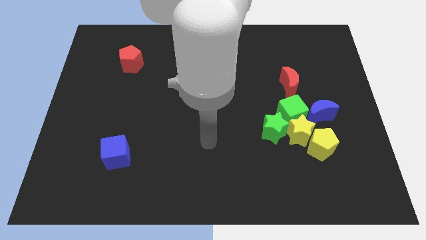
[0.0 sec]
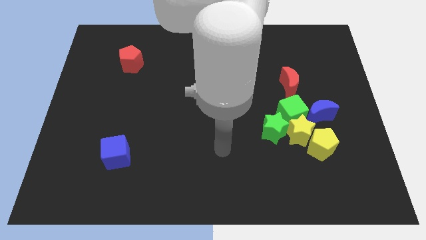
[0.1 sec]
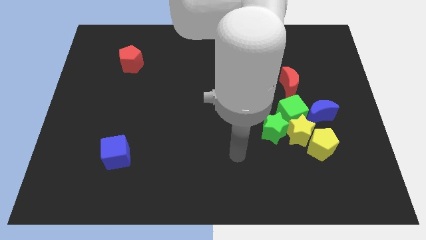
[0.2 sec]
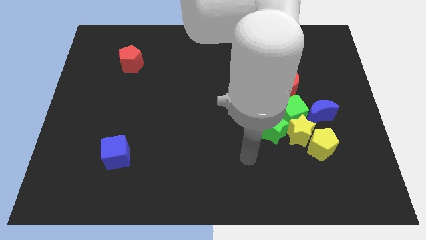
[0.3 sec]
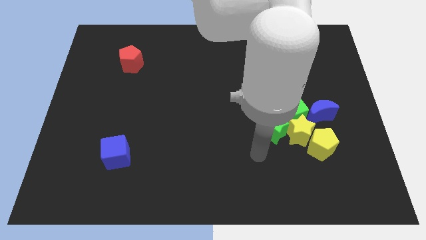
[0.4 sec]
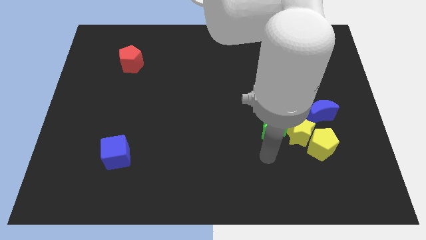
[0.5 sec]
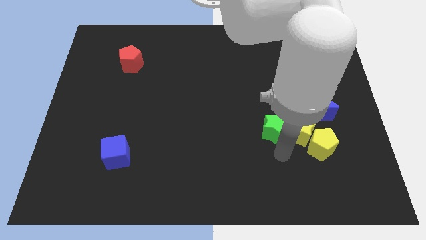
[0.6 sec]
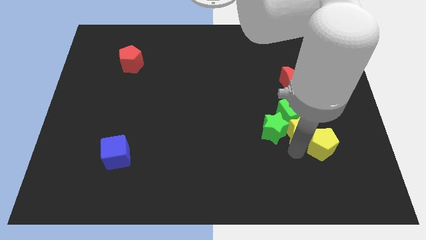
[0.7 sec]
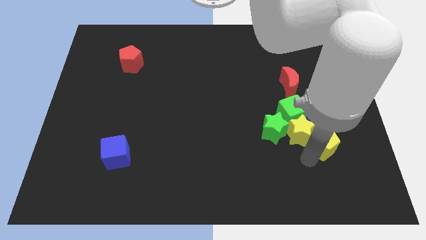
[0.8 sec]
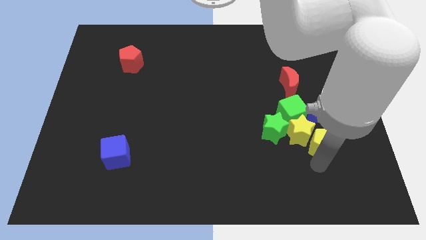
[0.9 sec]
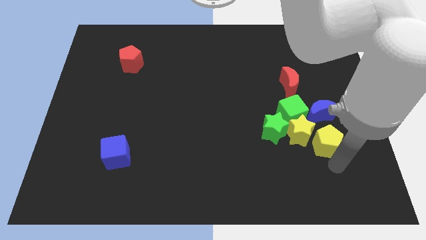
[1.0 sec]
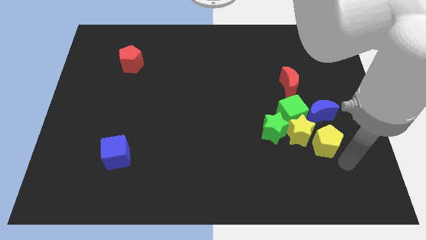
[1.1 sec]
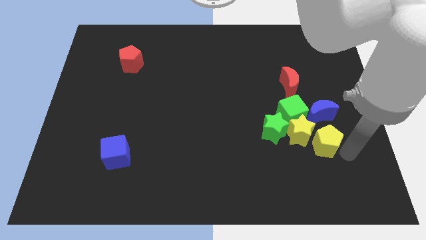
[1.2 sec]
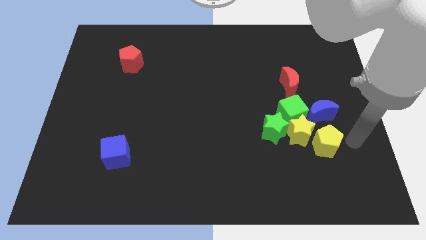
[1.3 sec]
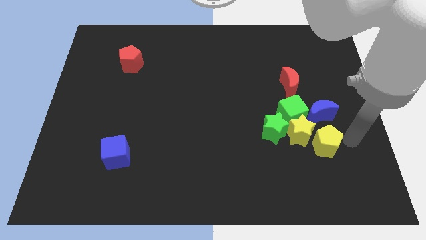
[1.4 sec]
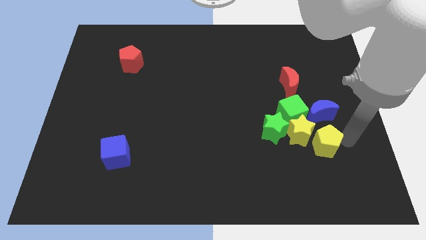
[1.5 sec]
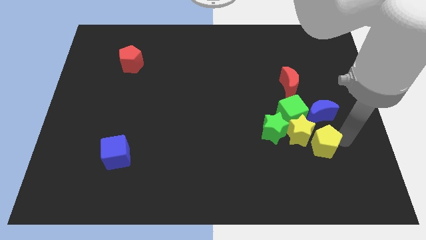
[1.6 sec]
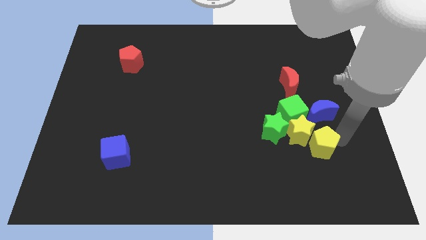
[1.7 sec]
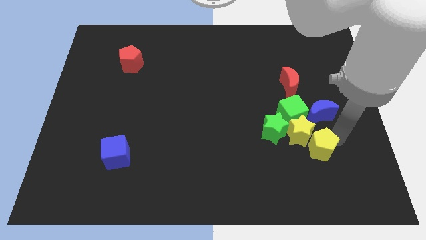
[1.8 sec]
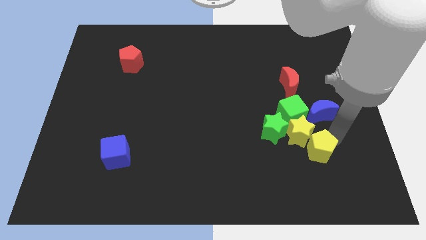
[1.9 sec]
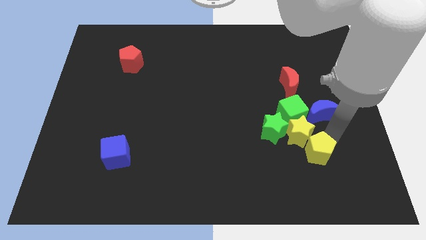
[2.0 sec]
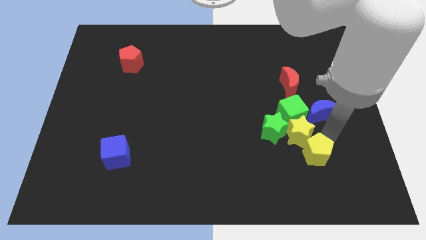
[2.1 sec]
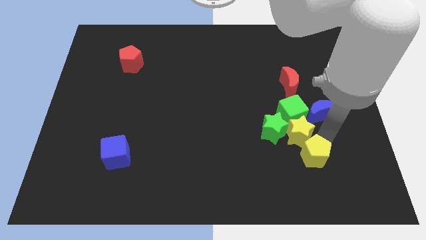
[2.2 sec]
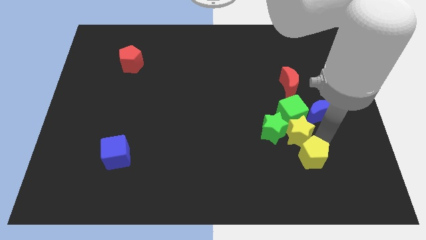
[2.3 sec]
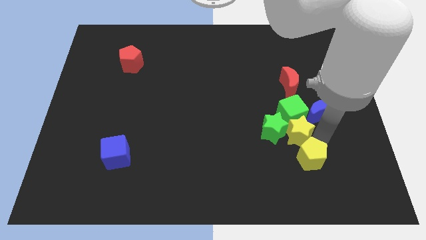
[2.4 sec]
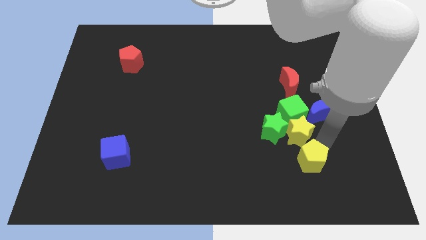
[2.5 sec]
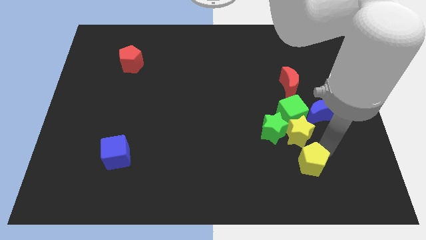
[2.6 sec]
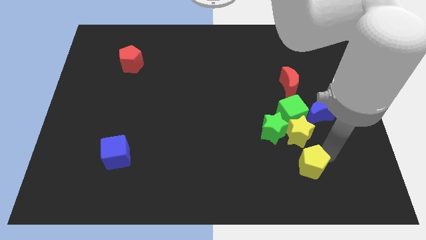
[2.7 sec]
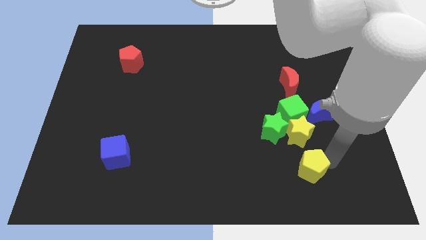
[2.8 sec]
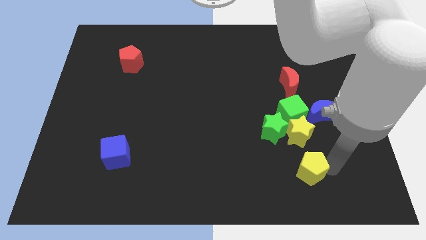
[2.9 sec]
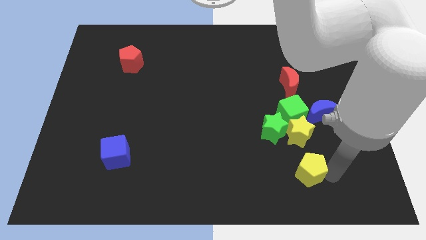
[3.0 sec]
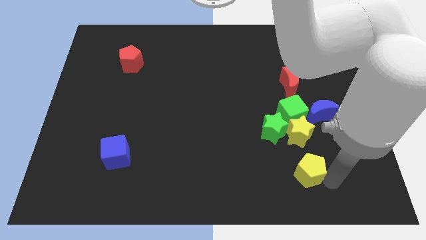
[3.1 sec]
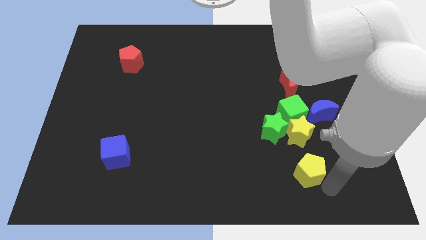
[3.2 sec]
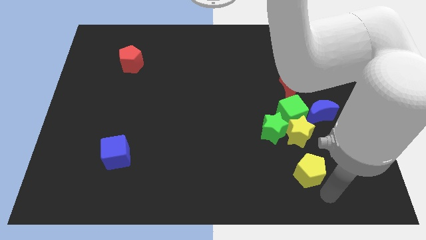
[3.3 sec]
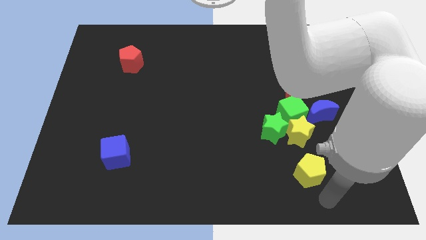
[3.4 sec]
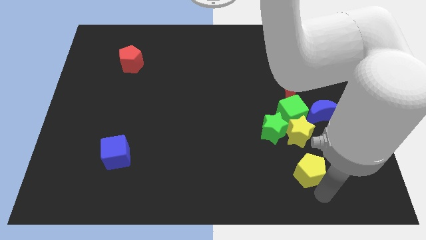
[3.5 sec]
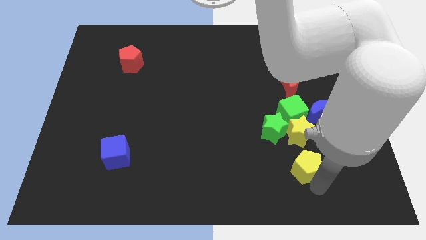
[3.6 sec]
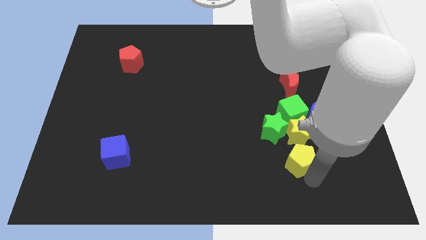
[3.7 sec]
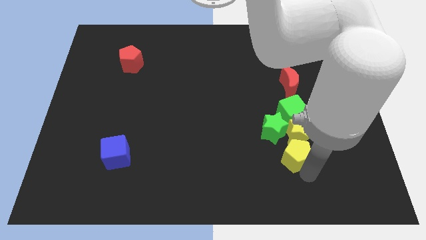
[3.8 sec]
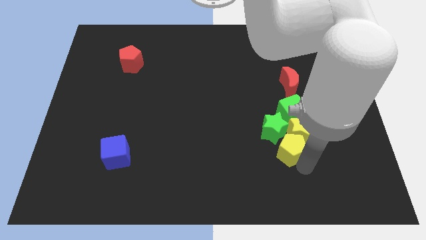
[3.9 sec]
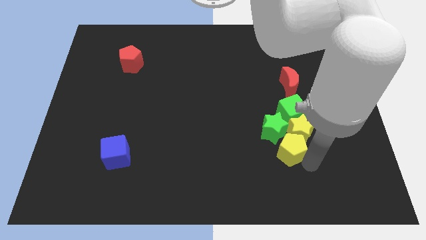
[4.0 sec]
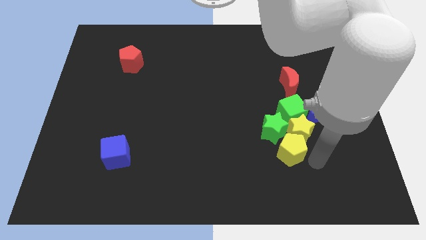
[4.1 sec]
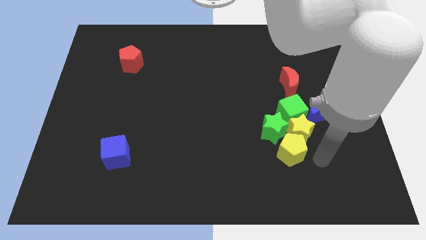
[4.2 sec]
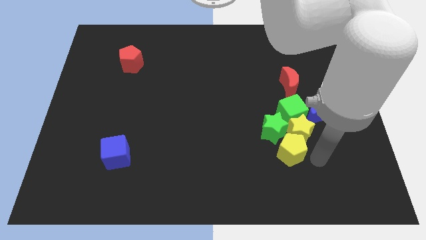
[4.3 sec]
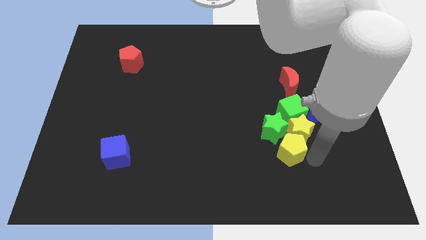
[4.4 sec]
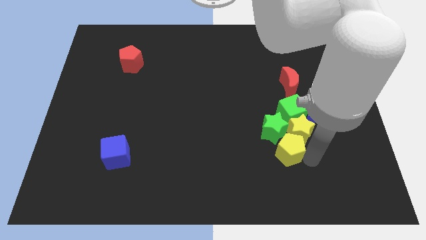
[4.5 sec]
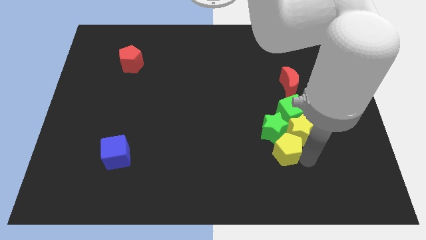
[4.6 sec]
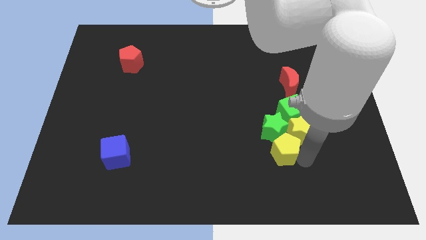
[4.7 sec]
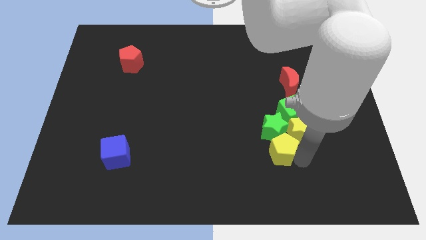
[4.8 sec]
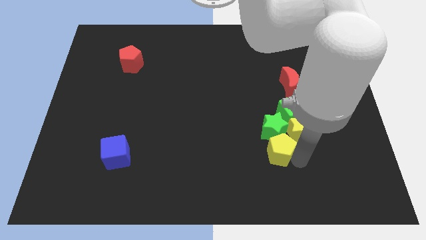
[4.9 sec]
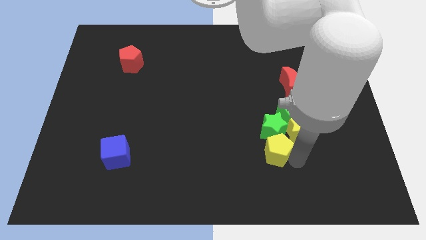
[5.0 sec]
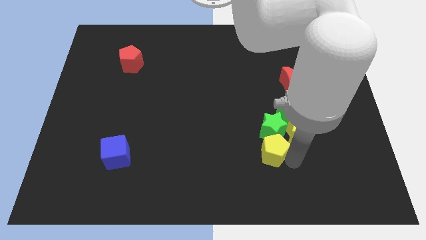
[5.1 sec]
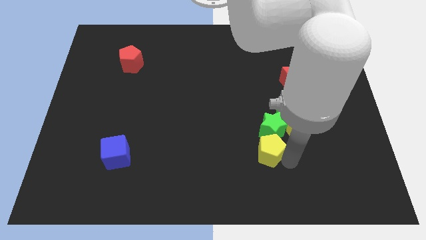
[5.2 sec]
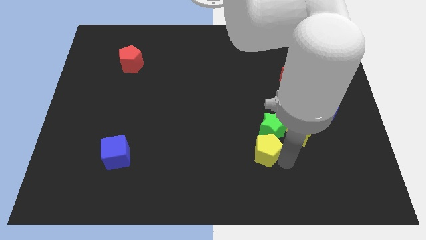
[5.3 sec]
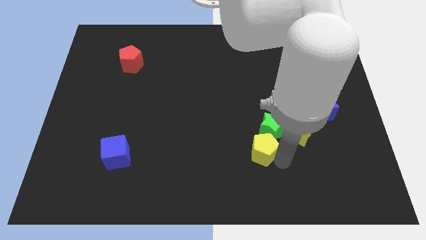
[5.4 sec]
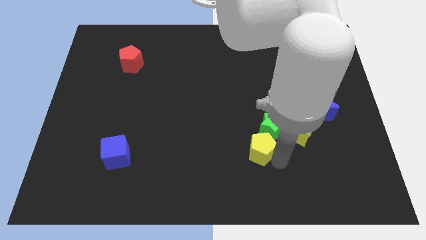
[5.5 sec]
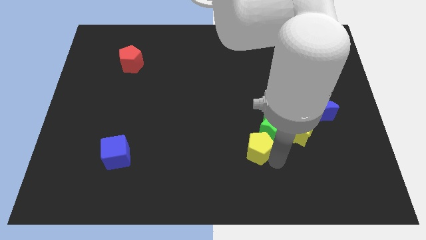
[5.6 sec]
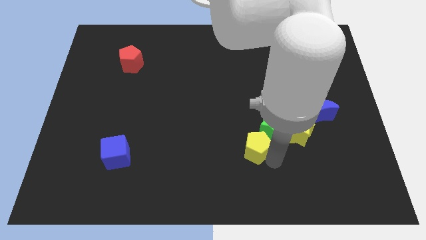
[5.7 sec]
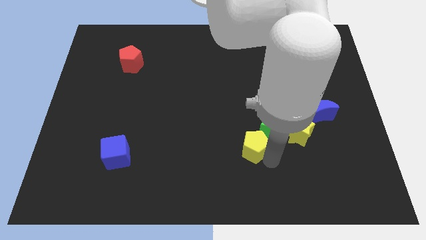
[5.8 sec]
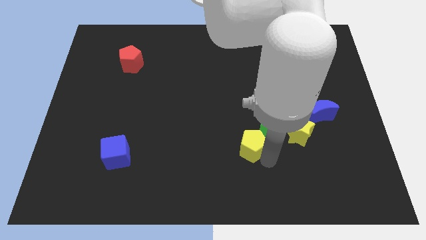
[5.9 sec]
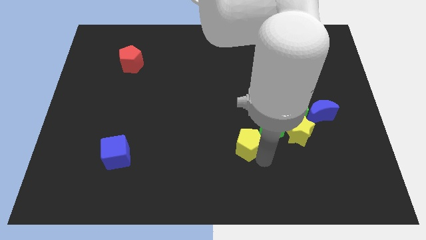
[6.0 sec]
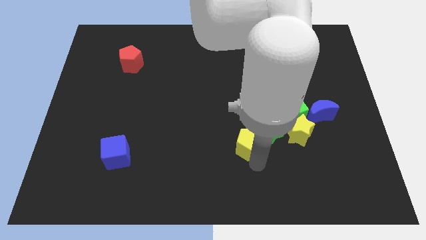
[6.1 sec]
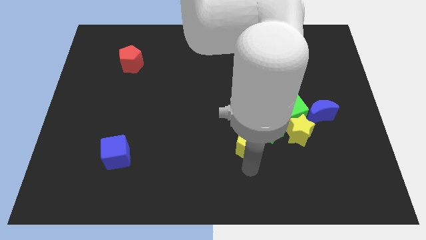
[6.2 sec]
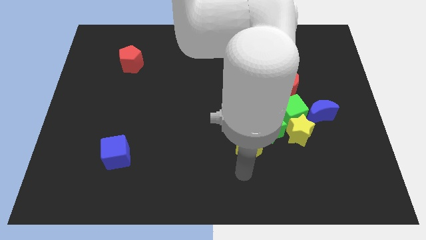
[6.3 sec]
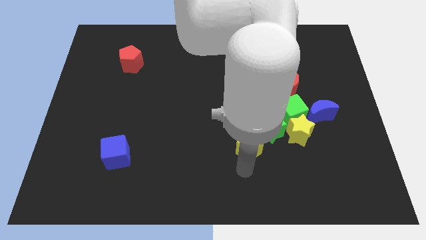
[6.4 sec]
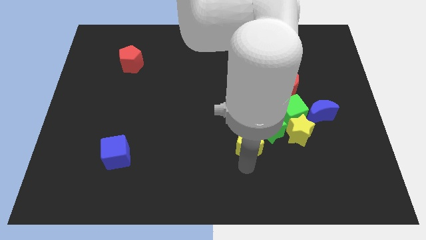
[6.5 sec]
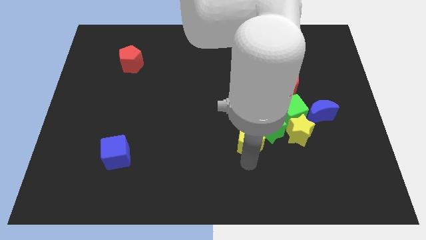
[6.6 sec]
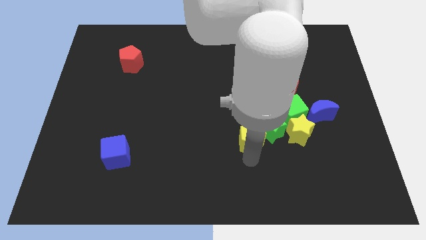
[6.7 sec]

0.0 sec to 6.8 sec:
move the yellow pentagon somewhat upwards and then left

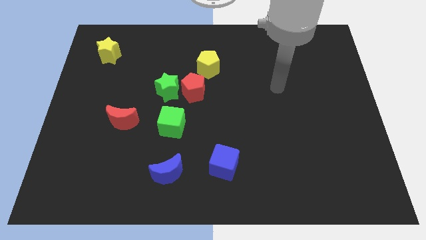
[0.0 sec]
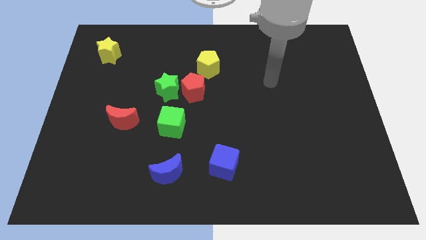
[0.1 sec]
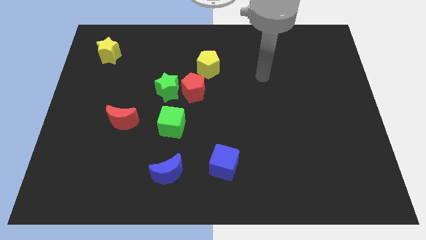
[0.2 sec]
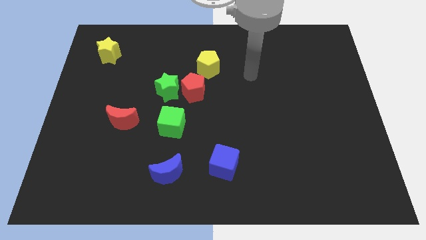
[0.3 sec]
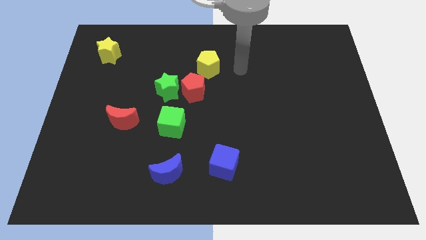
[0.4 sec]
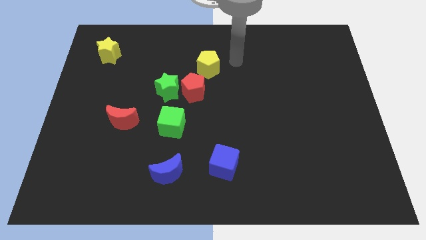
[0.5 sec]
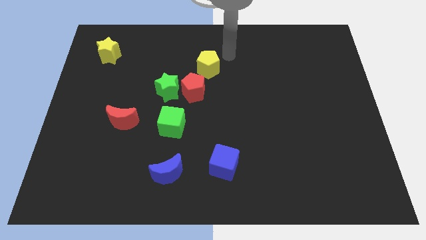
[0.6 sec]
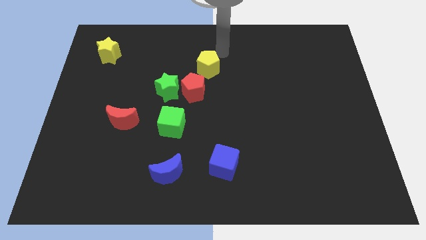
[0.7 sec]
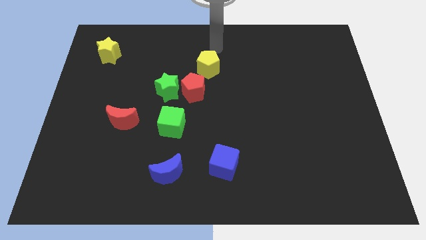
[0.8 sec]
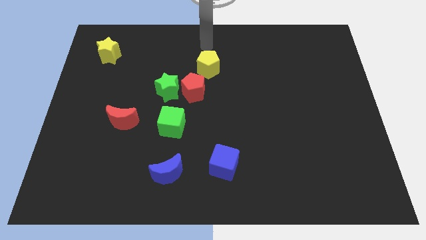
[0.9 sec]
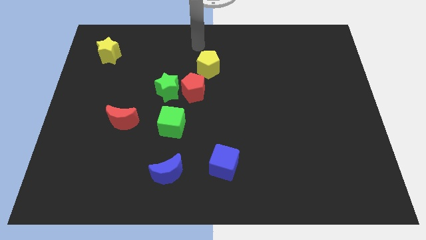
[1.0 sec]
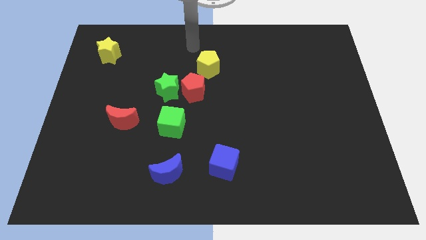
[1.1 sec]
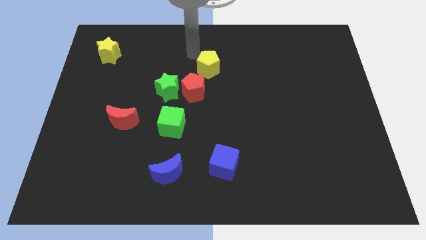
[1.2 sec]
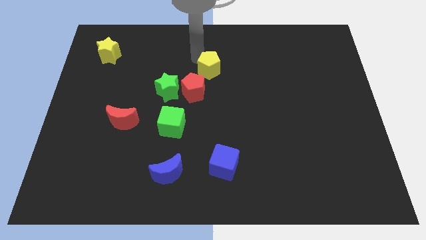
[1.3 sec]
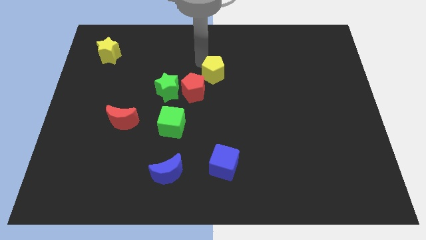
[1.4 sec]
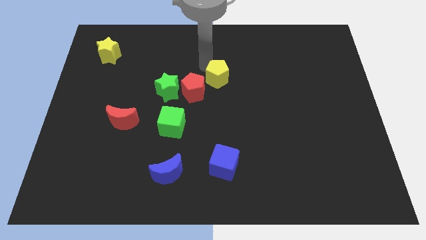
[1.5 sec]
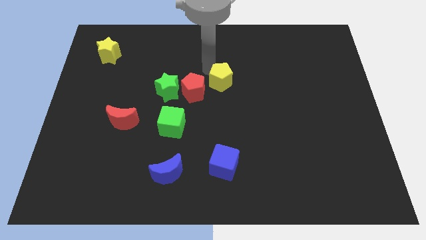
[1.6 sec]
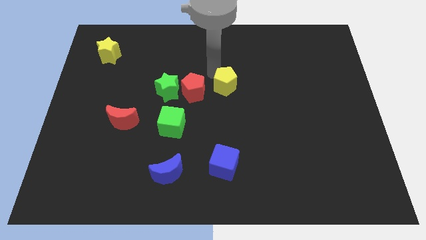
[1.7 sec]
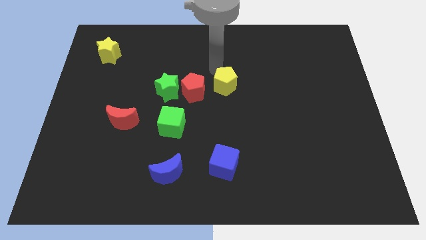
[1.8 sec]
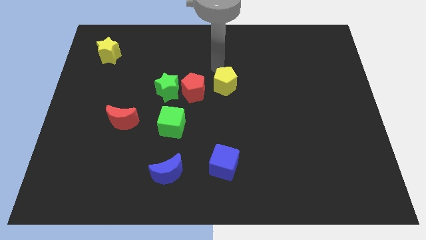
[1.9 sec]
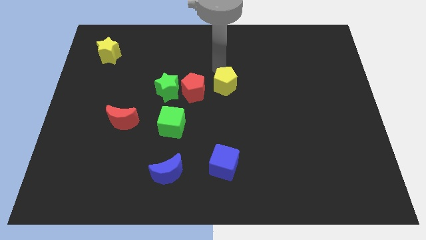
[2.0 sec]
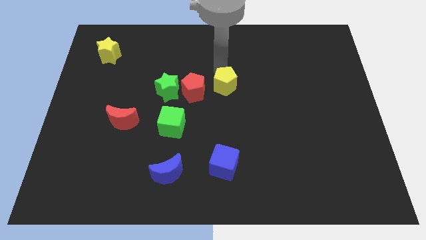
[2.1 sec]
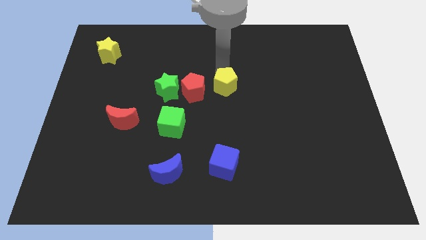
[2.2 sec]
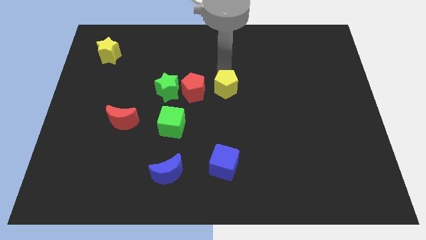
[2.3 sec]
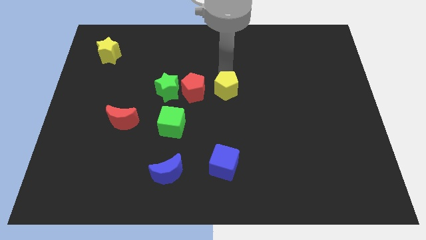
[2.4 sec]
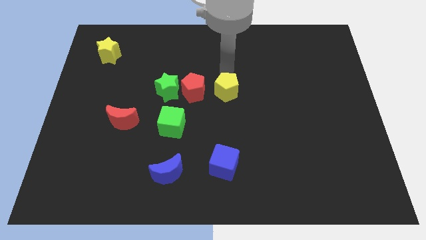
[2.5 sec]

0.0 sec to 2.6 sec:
slide the yellow pentagon down slightly
